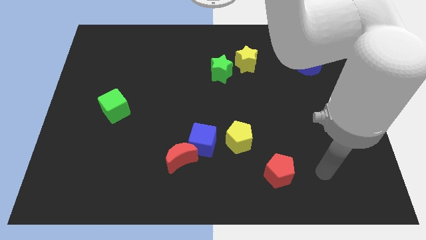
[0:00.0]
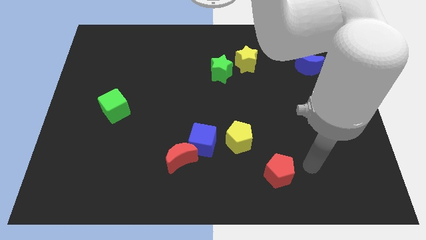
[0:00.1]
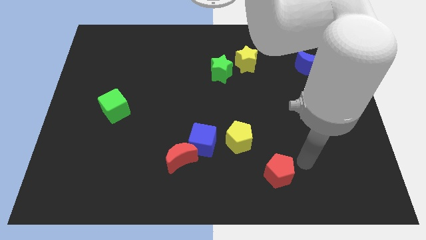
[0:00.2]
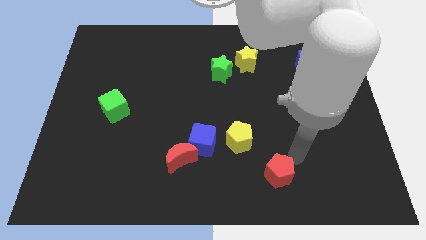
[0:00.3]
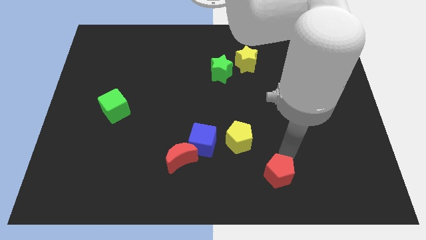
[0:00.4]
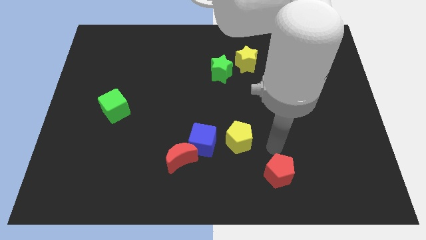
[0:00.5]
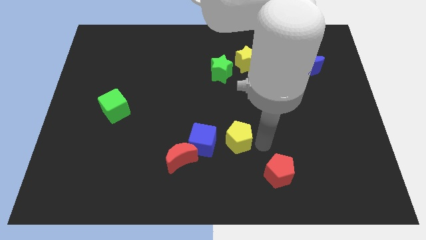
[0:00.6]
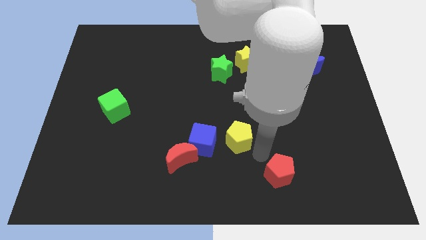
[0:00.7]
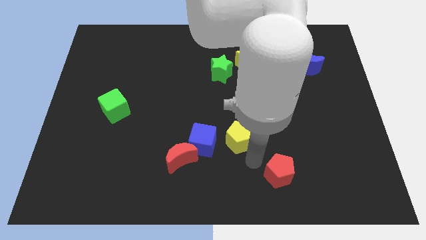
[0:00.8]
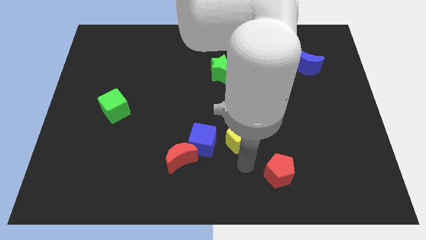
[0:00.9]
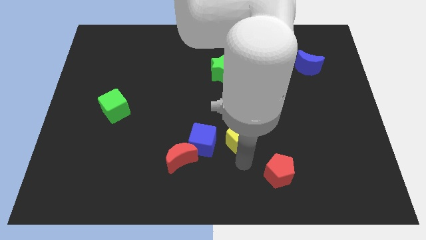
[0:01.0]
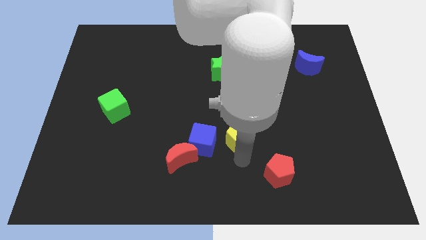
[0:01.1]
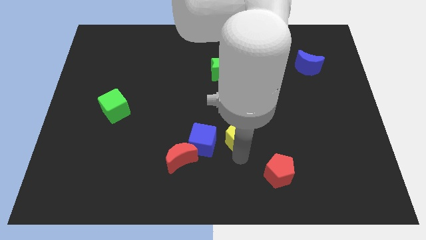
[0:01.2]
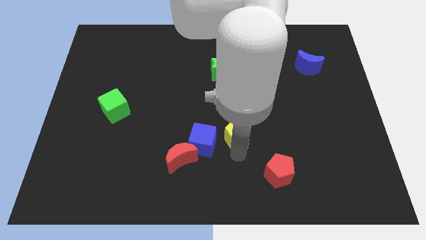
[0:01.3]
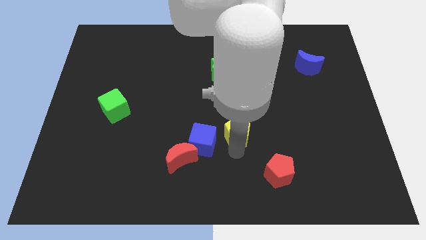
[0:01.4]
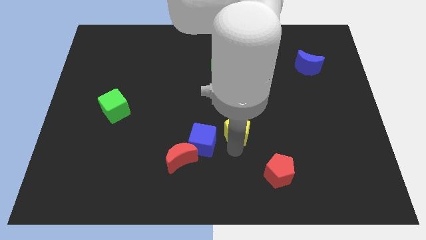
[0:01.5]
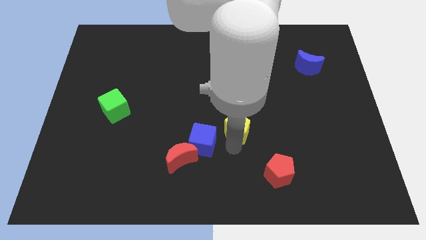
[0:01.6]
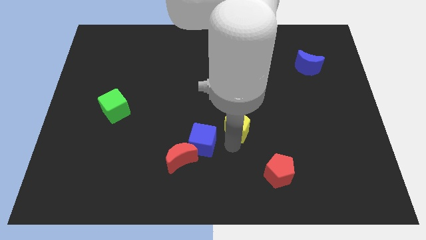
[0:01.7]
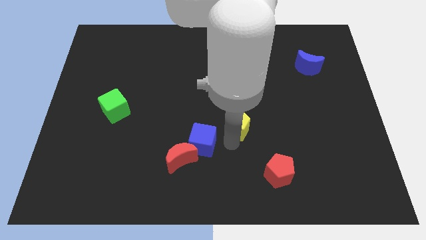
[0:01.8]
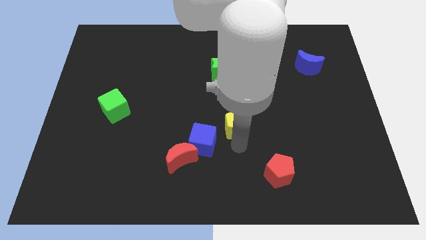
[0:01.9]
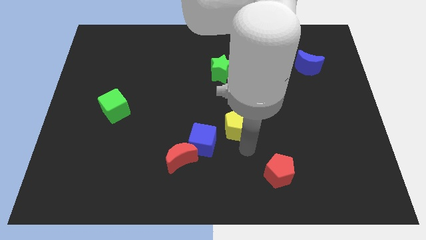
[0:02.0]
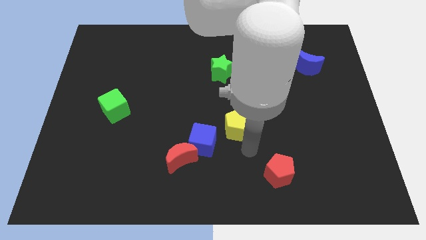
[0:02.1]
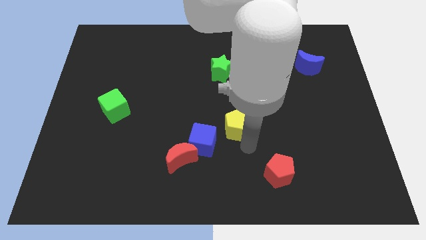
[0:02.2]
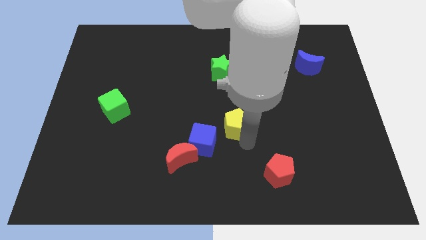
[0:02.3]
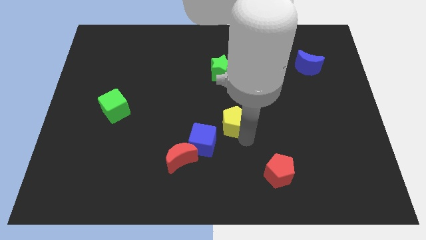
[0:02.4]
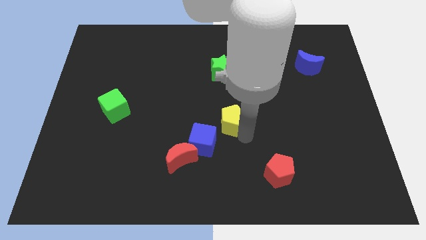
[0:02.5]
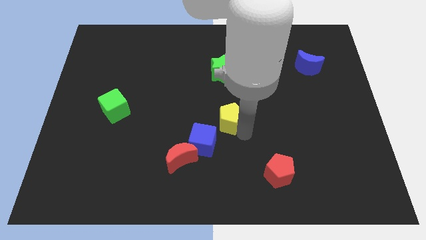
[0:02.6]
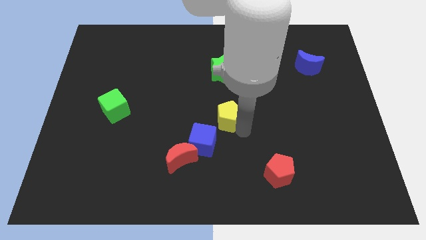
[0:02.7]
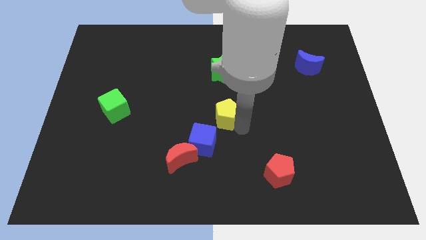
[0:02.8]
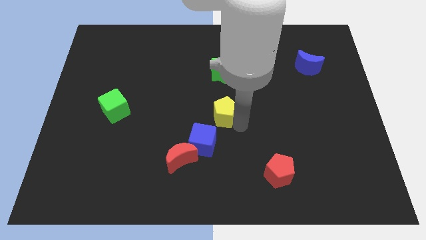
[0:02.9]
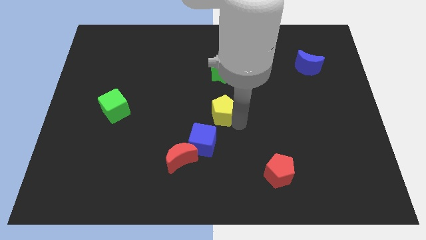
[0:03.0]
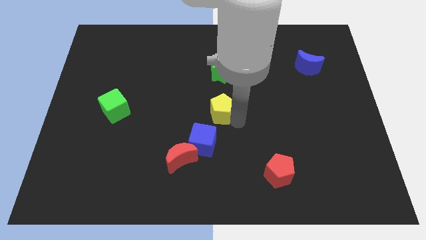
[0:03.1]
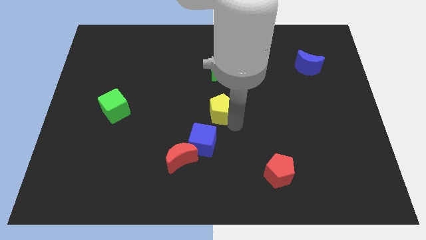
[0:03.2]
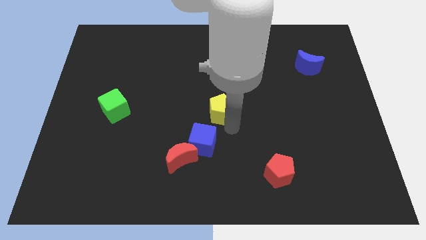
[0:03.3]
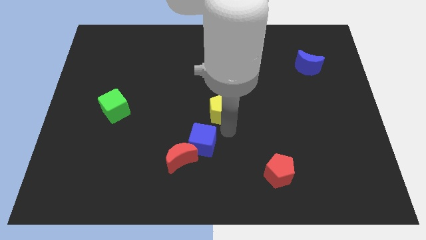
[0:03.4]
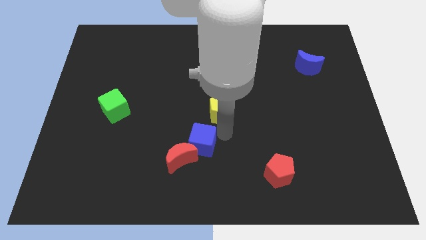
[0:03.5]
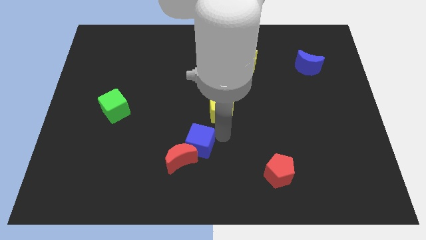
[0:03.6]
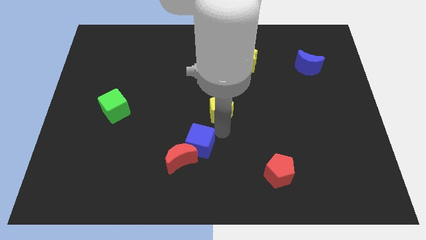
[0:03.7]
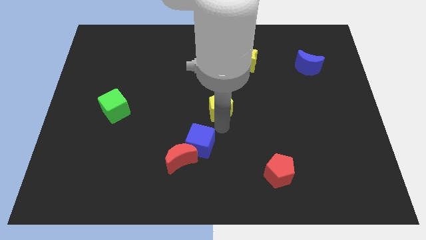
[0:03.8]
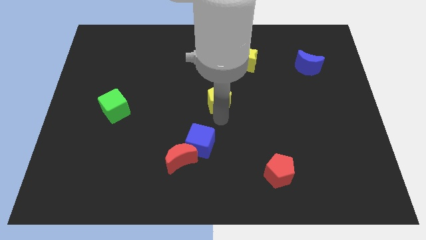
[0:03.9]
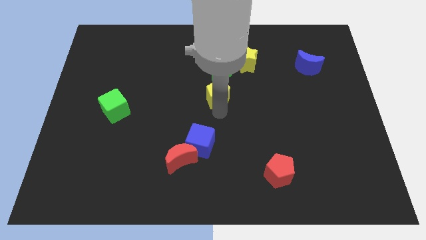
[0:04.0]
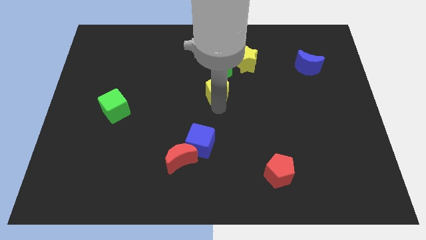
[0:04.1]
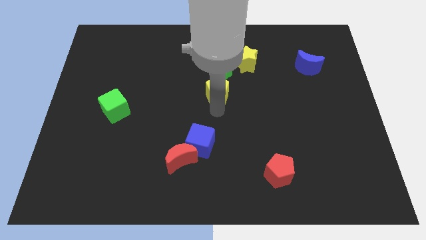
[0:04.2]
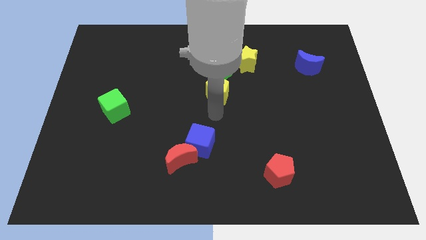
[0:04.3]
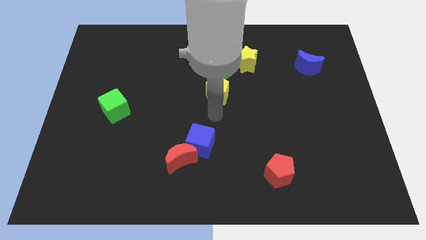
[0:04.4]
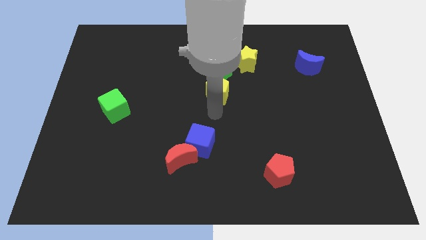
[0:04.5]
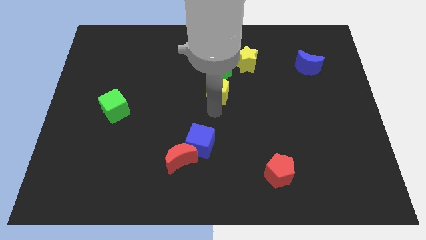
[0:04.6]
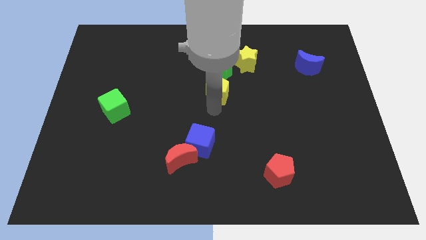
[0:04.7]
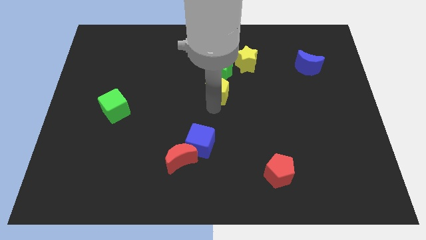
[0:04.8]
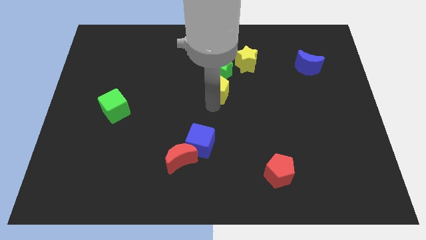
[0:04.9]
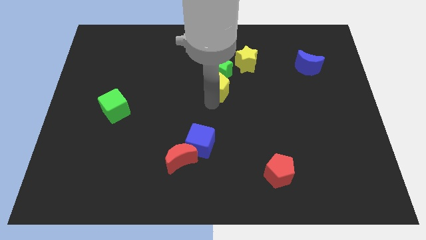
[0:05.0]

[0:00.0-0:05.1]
move the yellow pentagon close to the green star

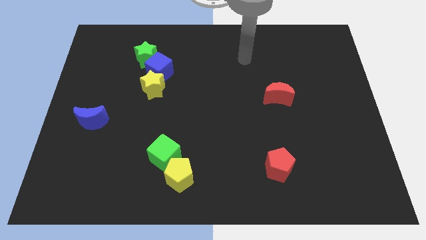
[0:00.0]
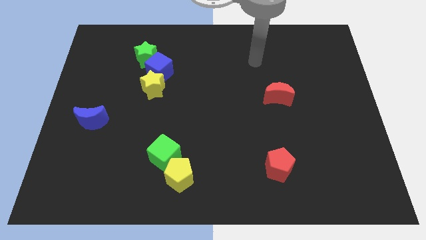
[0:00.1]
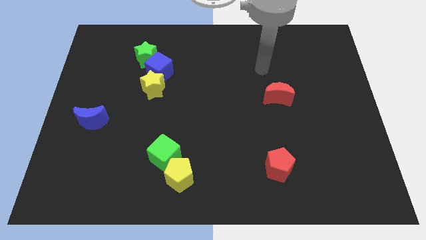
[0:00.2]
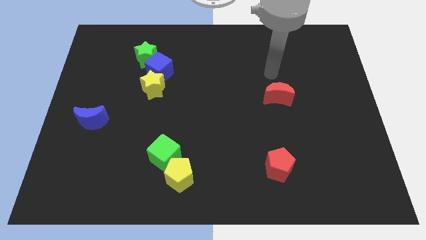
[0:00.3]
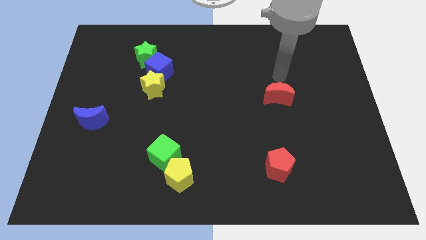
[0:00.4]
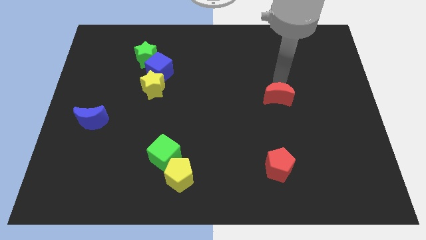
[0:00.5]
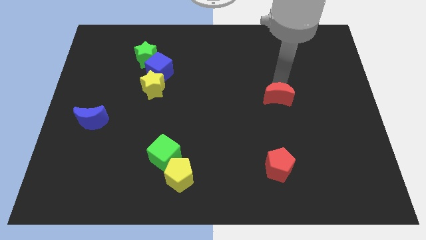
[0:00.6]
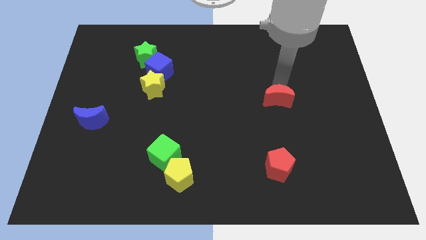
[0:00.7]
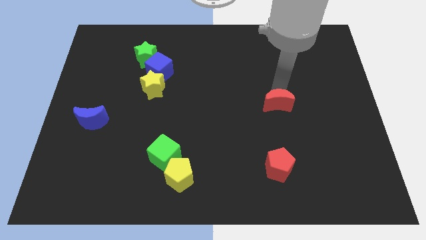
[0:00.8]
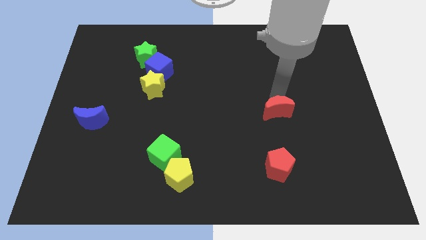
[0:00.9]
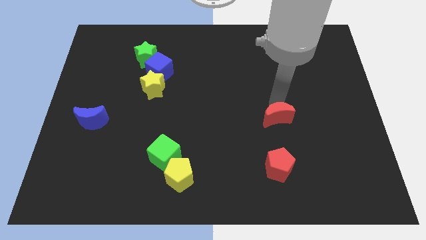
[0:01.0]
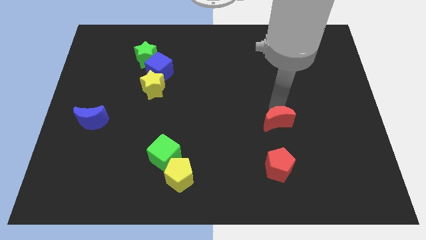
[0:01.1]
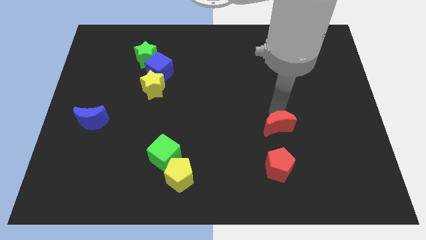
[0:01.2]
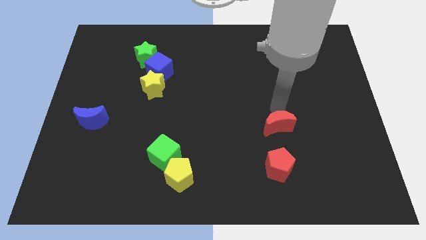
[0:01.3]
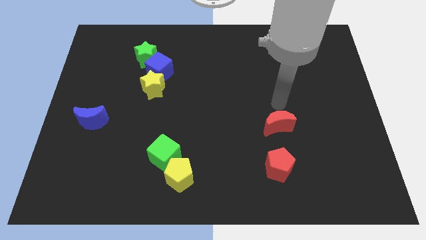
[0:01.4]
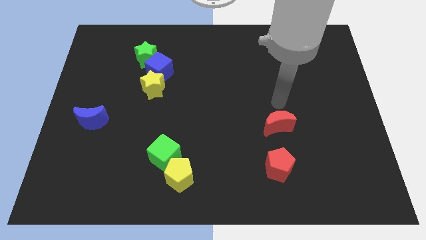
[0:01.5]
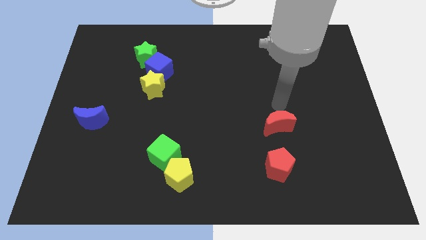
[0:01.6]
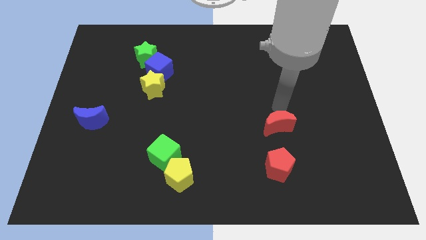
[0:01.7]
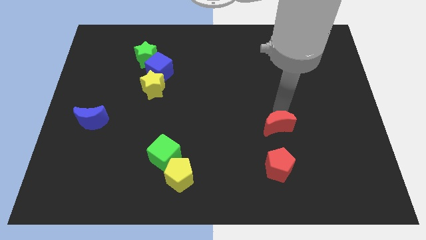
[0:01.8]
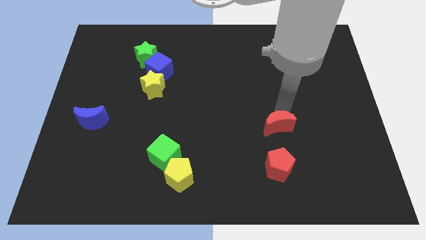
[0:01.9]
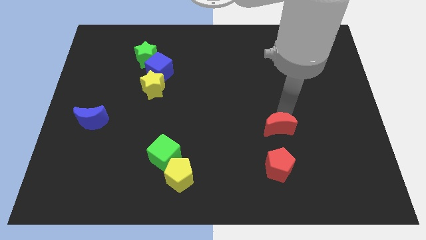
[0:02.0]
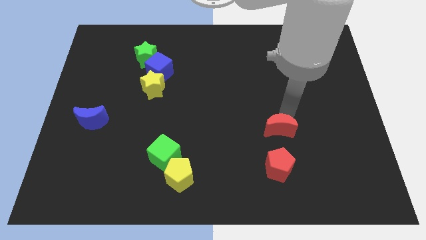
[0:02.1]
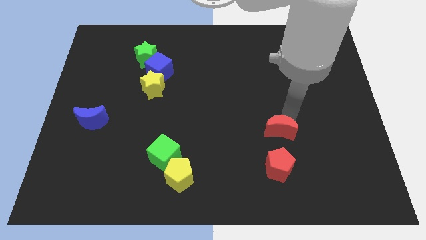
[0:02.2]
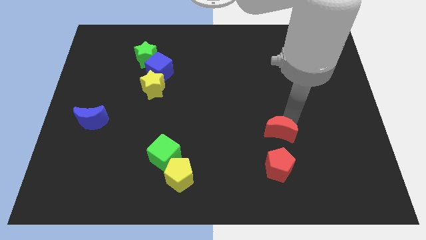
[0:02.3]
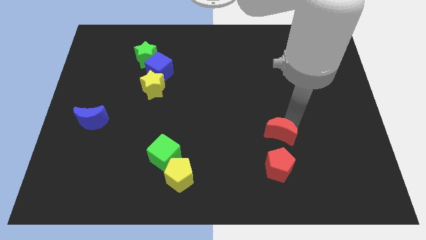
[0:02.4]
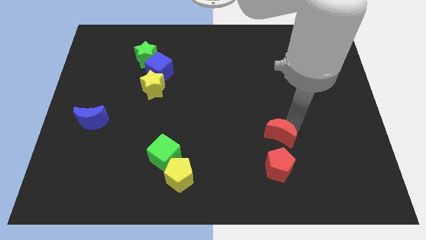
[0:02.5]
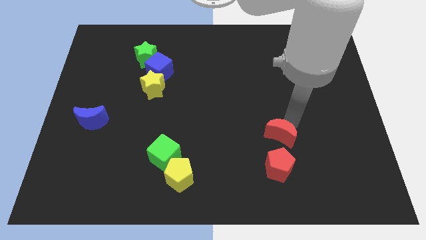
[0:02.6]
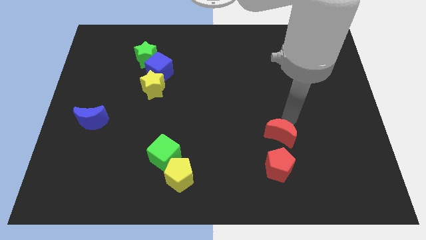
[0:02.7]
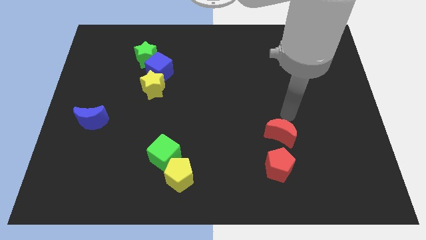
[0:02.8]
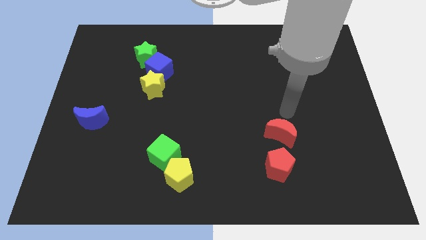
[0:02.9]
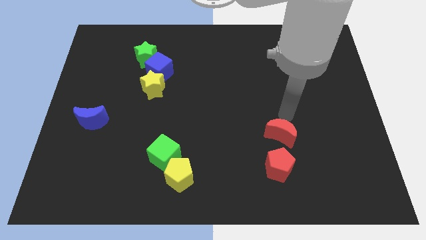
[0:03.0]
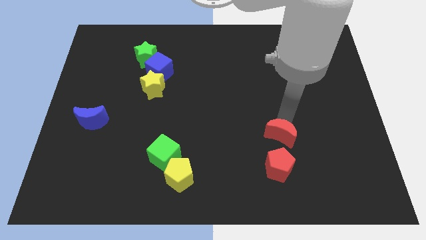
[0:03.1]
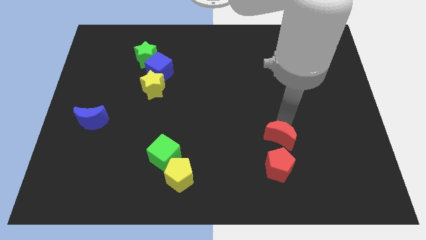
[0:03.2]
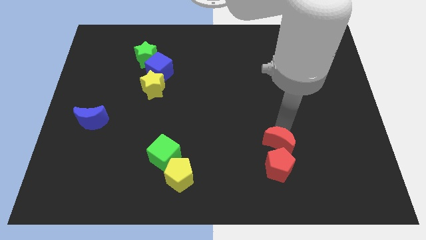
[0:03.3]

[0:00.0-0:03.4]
push the red moon to the red pentagon
